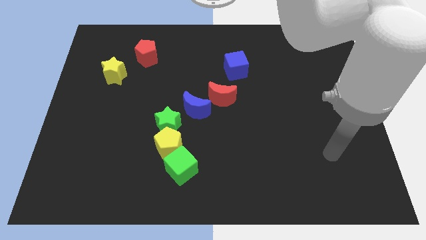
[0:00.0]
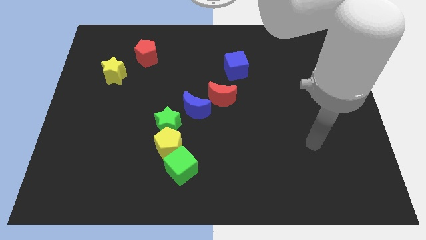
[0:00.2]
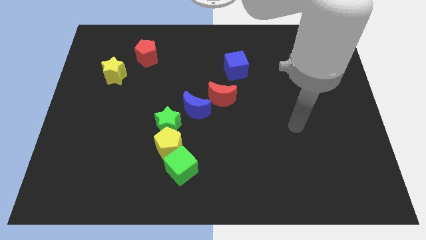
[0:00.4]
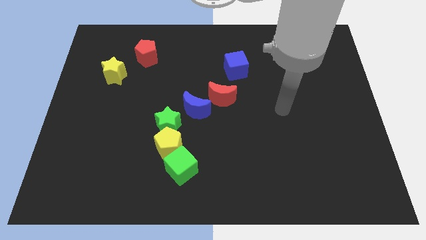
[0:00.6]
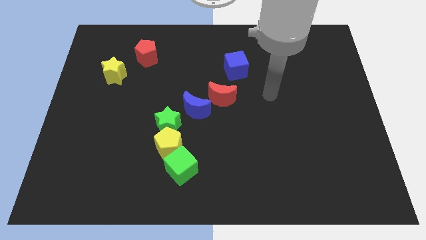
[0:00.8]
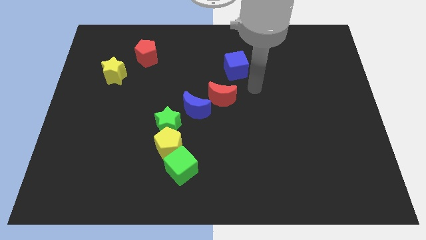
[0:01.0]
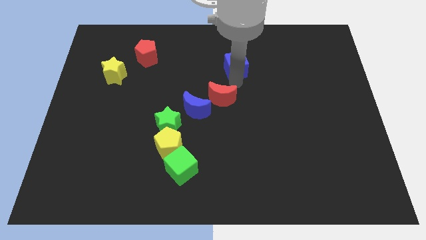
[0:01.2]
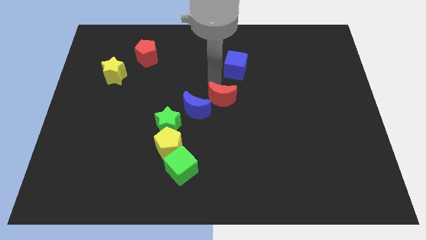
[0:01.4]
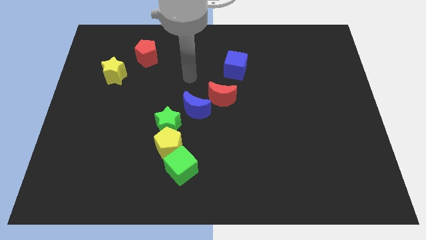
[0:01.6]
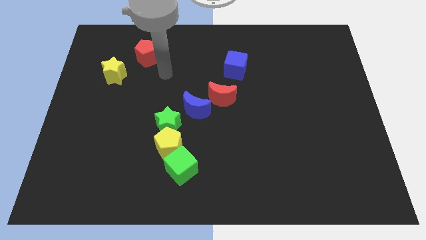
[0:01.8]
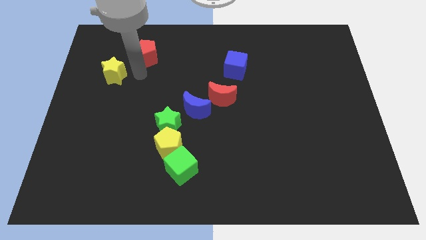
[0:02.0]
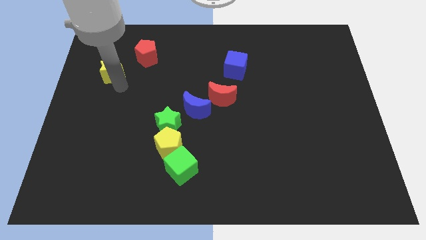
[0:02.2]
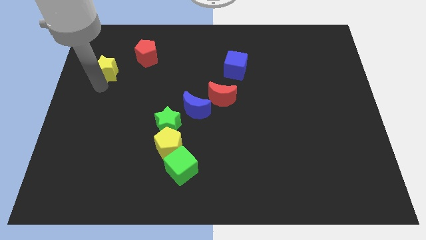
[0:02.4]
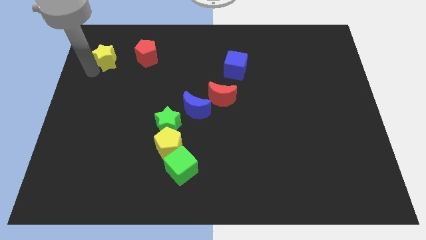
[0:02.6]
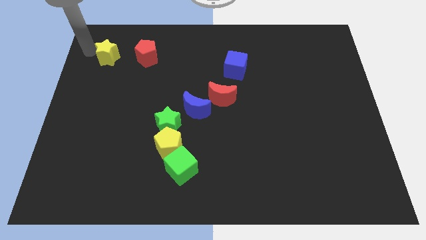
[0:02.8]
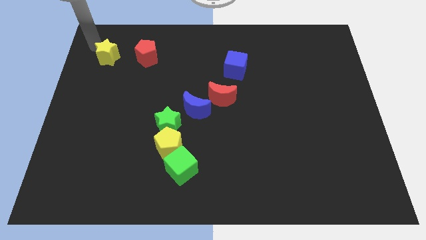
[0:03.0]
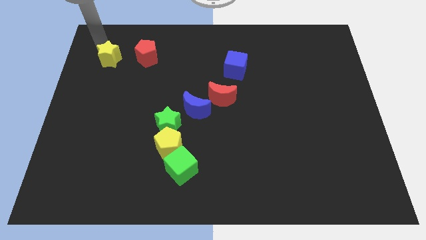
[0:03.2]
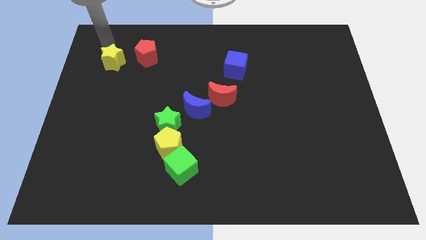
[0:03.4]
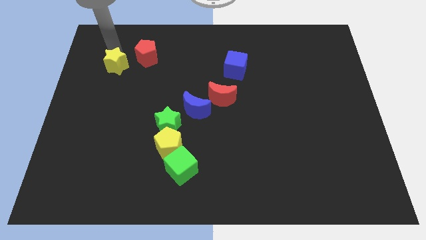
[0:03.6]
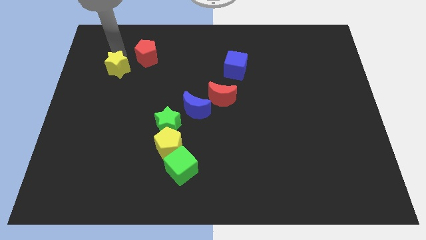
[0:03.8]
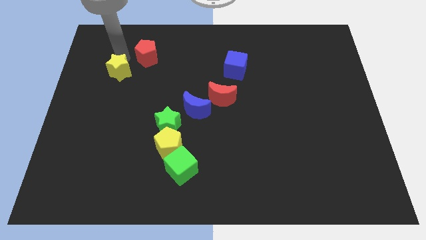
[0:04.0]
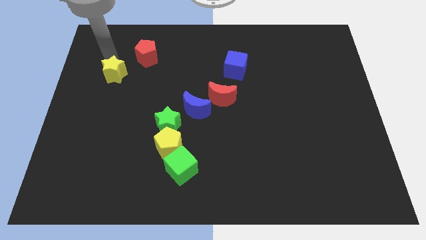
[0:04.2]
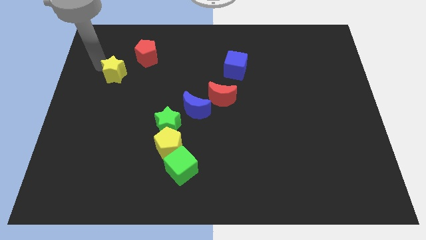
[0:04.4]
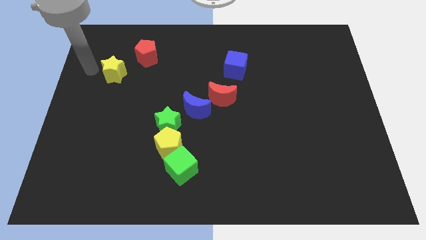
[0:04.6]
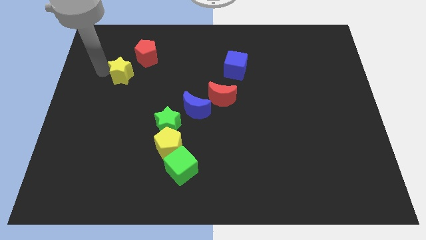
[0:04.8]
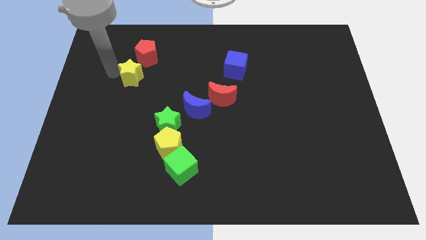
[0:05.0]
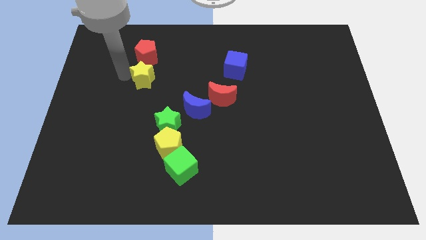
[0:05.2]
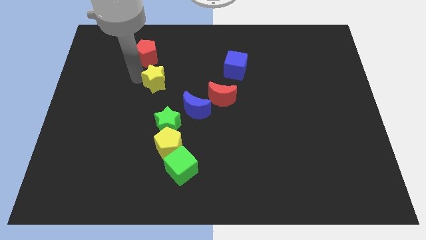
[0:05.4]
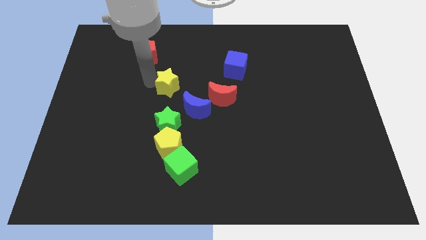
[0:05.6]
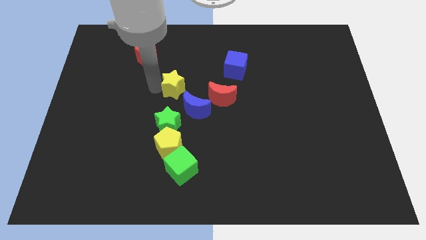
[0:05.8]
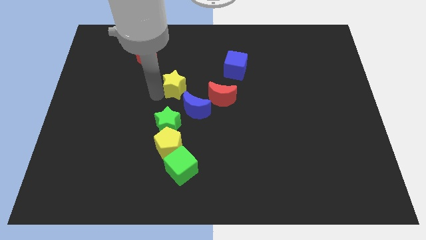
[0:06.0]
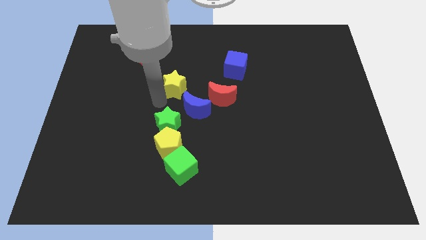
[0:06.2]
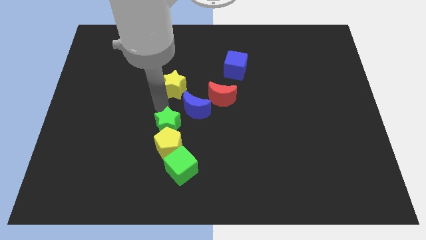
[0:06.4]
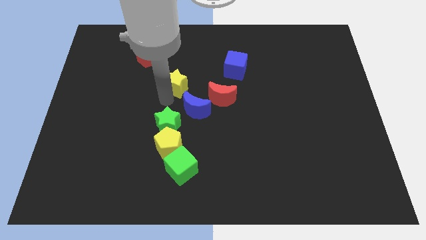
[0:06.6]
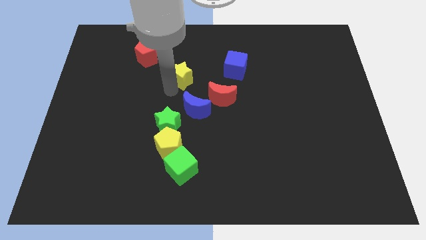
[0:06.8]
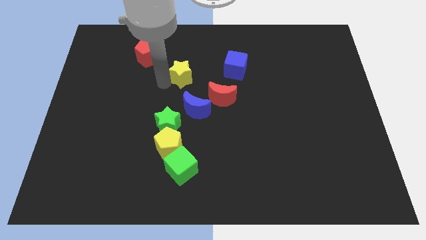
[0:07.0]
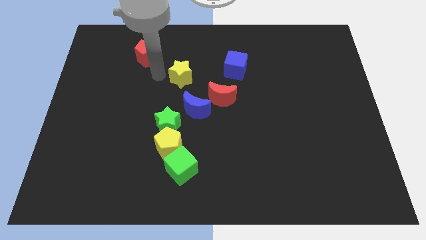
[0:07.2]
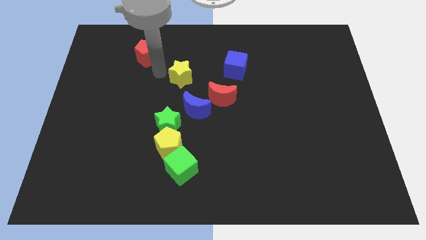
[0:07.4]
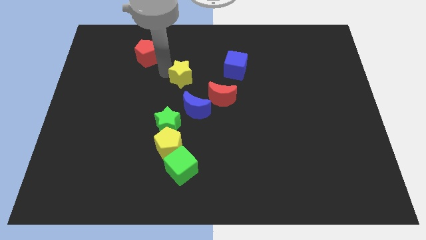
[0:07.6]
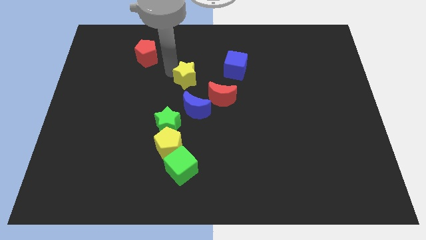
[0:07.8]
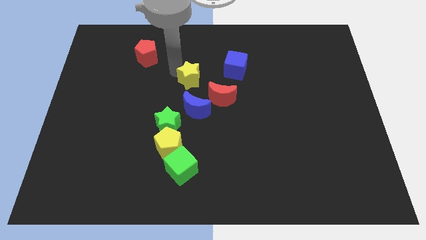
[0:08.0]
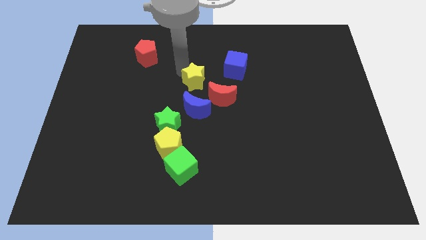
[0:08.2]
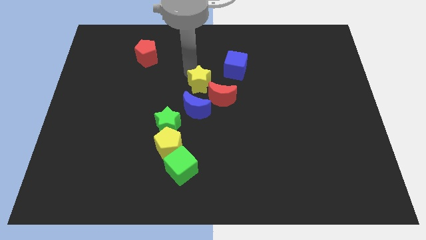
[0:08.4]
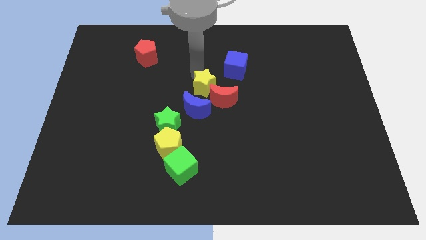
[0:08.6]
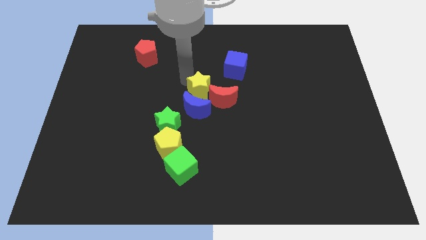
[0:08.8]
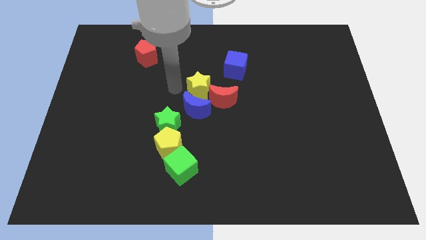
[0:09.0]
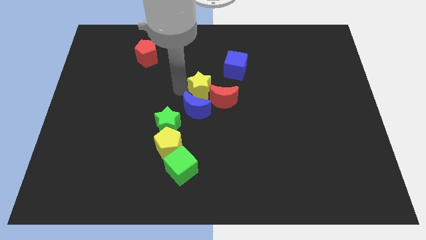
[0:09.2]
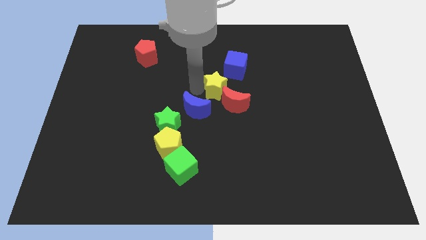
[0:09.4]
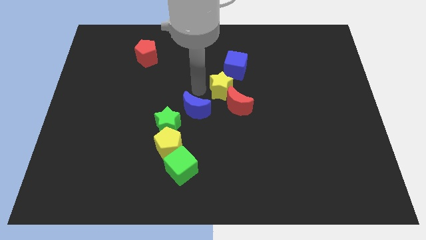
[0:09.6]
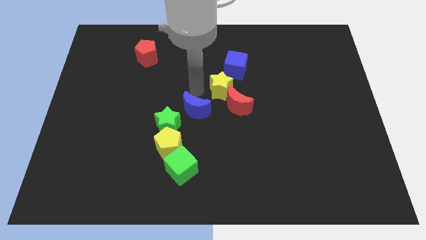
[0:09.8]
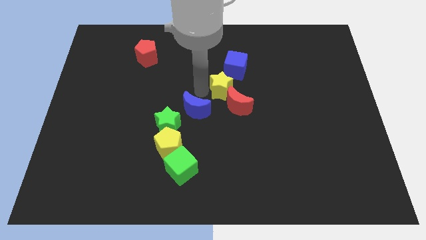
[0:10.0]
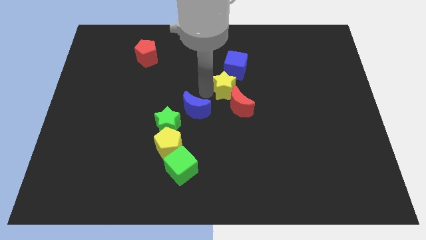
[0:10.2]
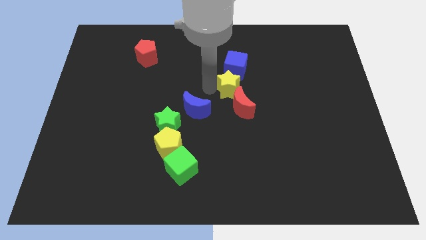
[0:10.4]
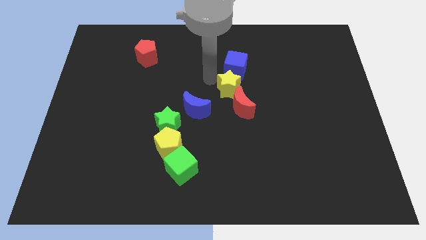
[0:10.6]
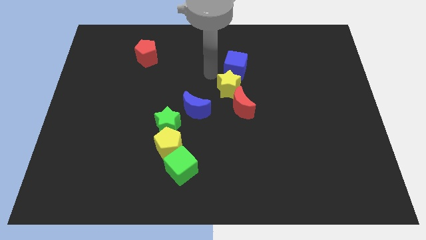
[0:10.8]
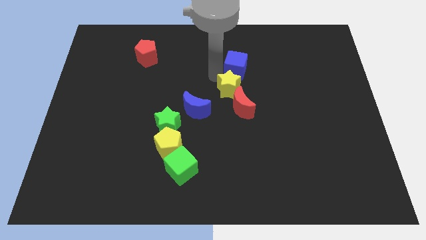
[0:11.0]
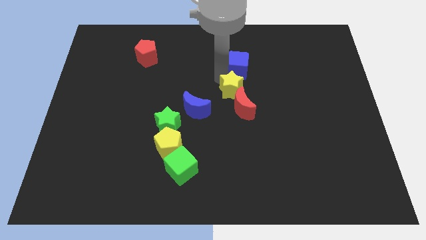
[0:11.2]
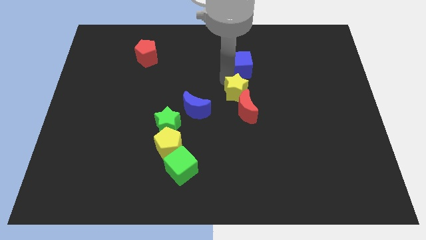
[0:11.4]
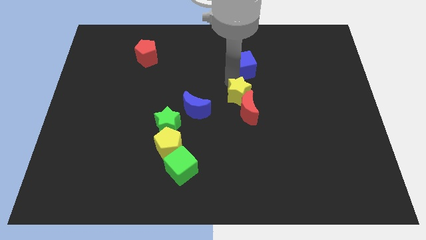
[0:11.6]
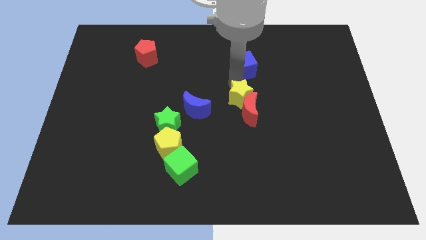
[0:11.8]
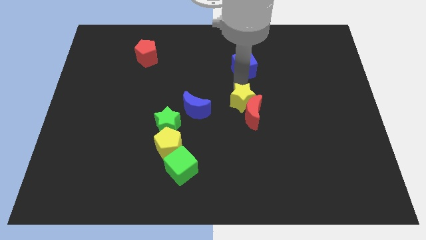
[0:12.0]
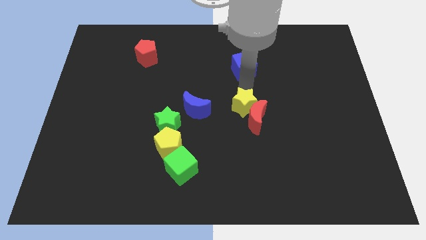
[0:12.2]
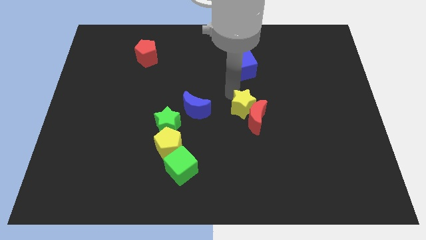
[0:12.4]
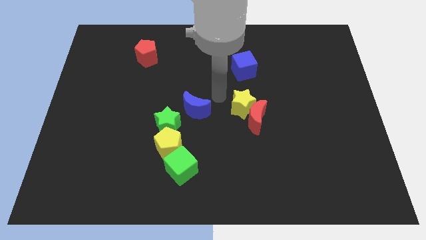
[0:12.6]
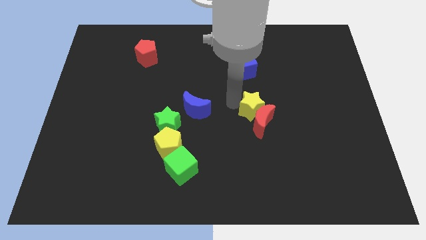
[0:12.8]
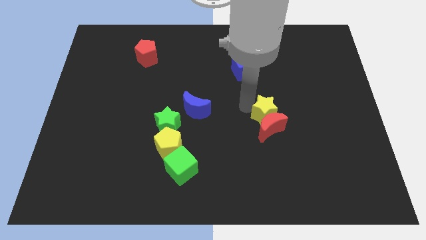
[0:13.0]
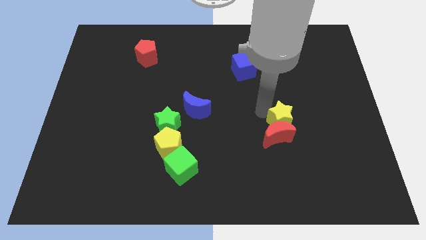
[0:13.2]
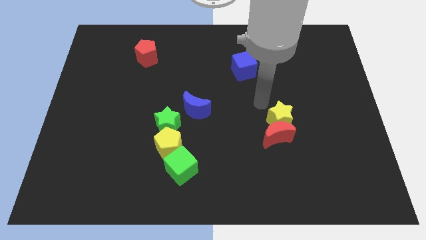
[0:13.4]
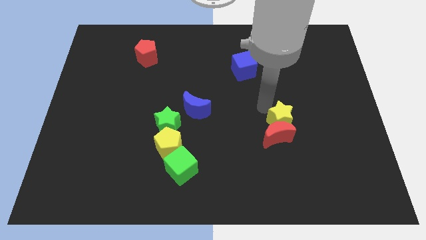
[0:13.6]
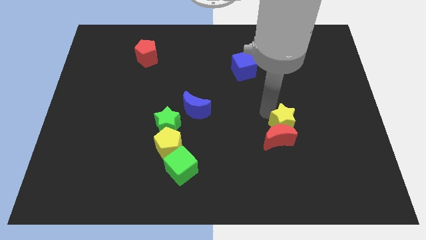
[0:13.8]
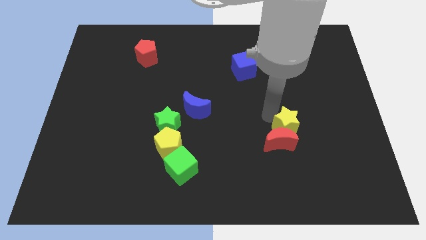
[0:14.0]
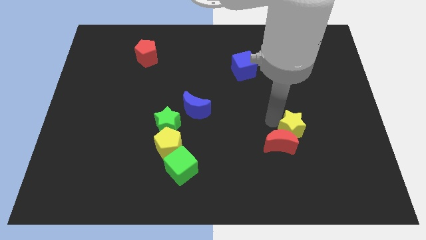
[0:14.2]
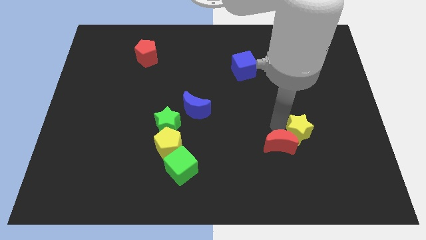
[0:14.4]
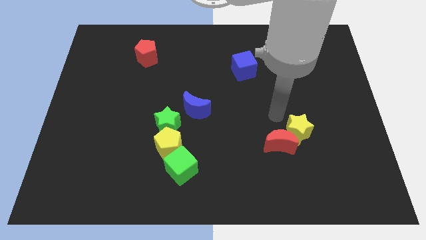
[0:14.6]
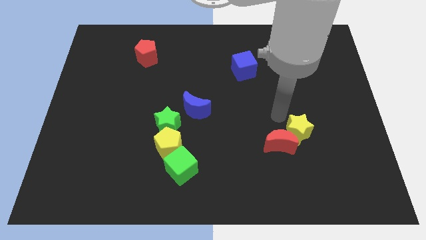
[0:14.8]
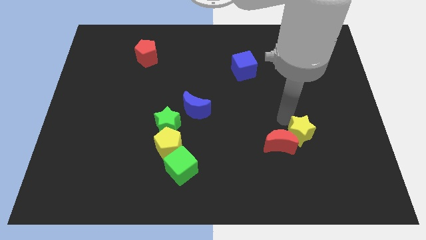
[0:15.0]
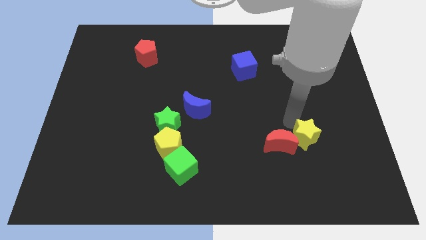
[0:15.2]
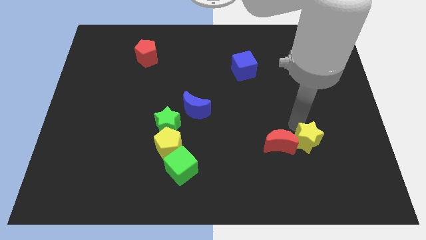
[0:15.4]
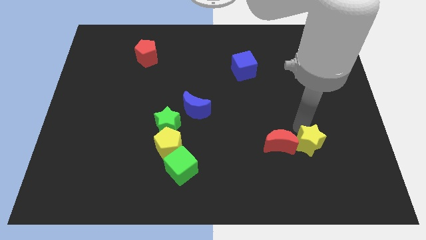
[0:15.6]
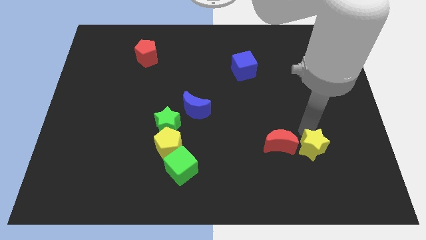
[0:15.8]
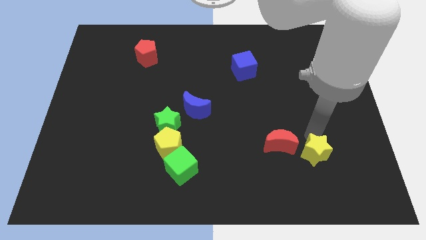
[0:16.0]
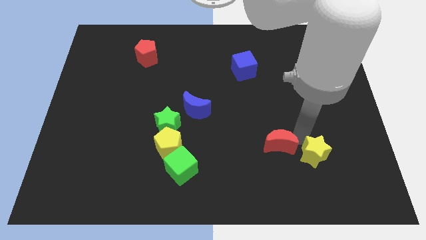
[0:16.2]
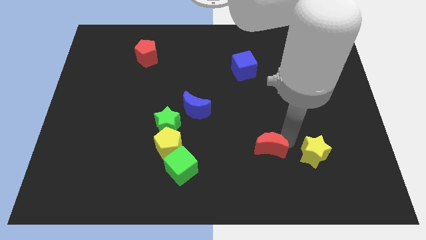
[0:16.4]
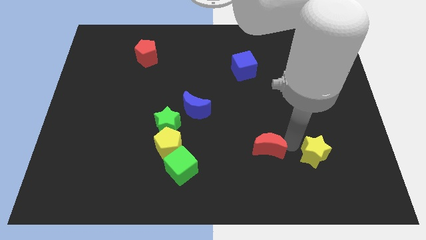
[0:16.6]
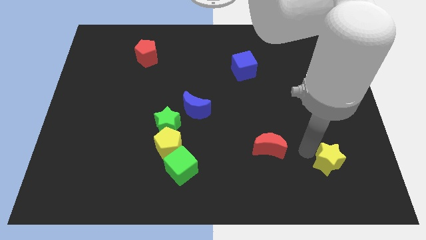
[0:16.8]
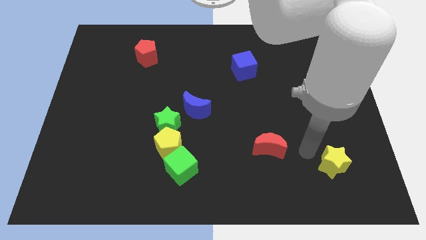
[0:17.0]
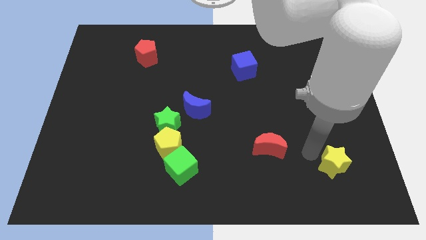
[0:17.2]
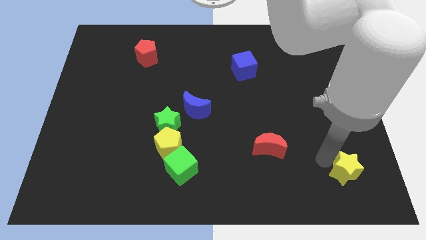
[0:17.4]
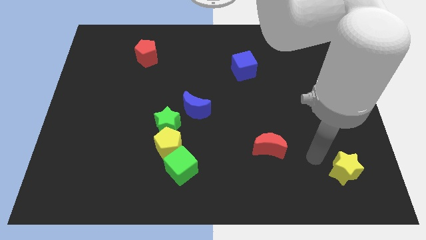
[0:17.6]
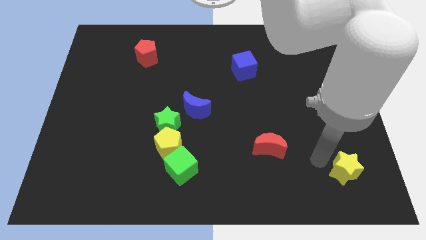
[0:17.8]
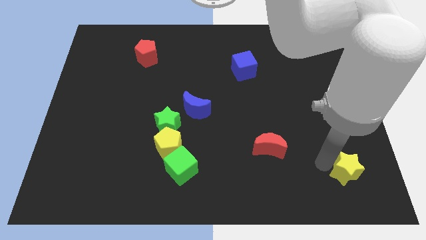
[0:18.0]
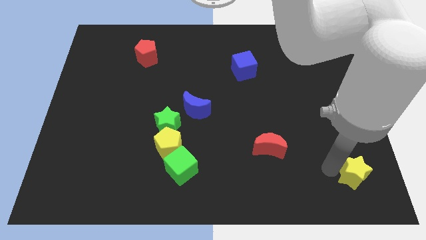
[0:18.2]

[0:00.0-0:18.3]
slide the yellow star to the bottom right corner
